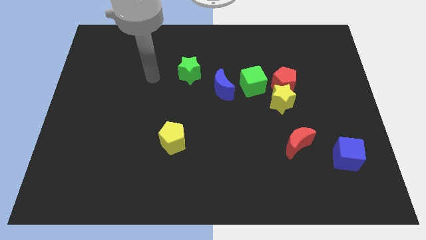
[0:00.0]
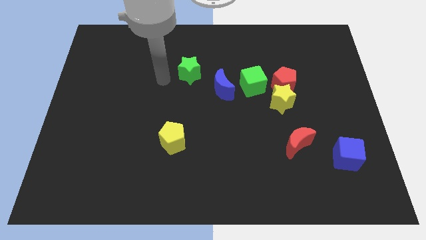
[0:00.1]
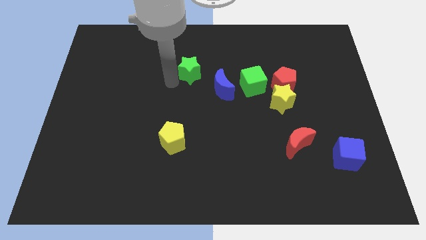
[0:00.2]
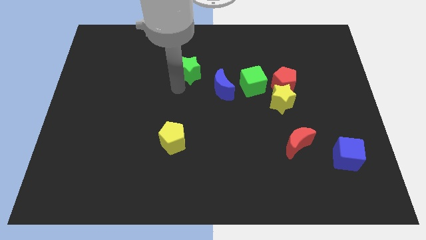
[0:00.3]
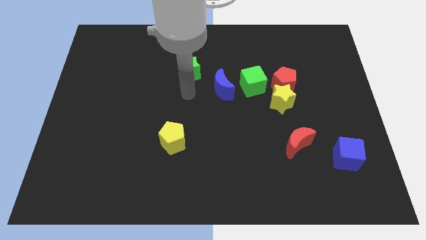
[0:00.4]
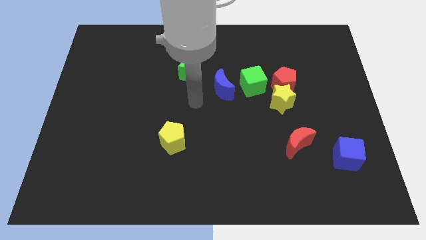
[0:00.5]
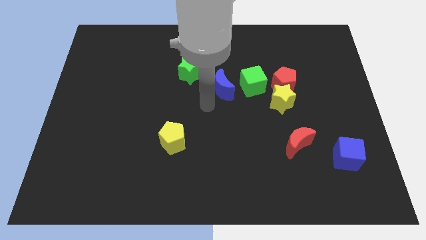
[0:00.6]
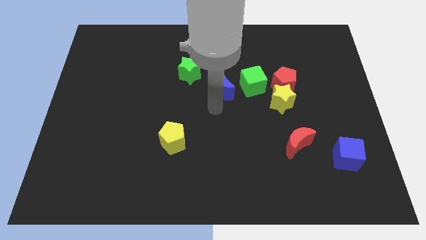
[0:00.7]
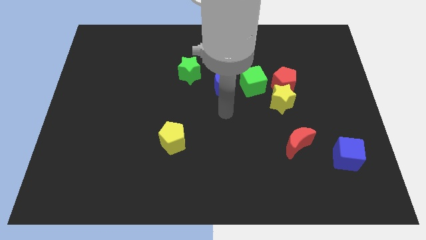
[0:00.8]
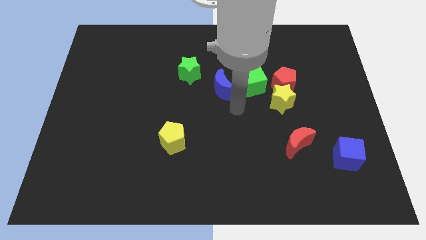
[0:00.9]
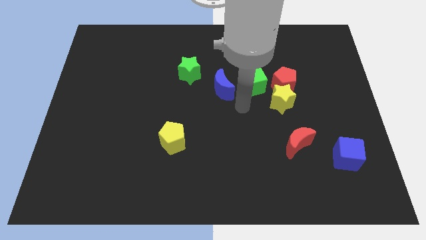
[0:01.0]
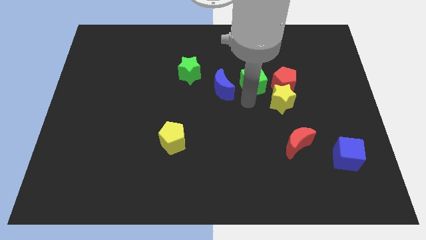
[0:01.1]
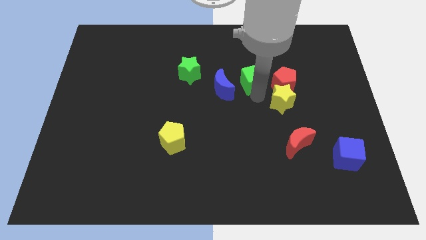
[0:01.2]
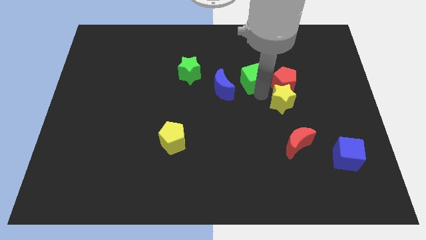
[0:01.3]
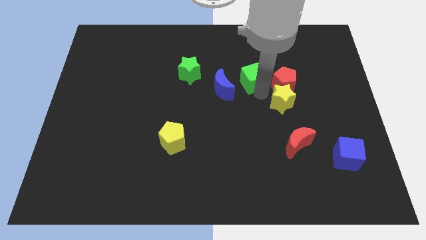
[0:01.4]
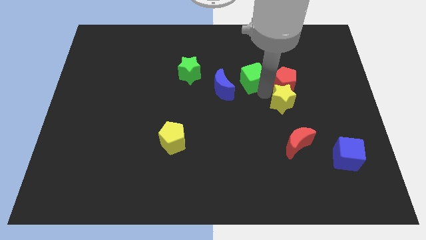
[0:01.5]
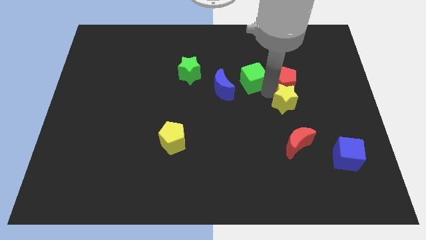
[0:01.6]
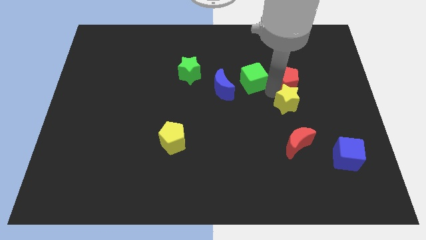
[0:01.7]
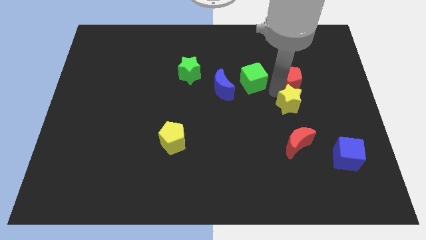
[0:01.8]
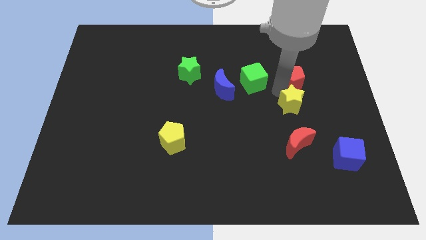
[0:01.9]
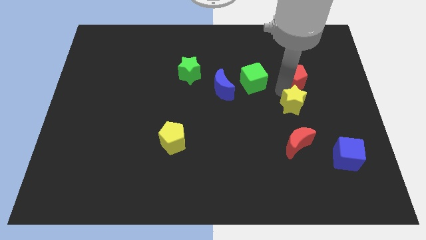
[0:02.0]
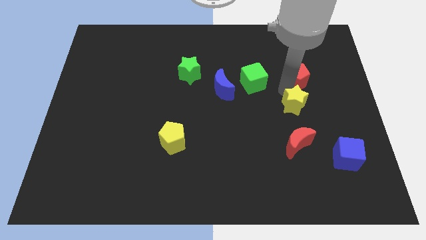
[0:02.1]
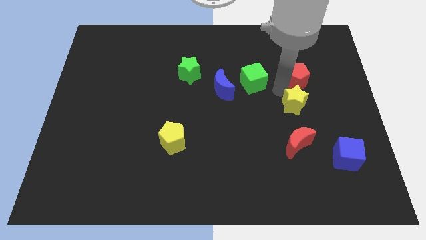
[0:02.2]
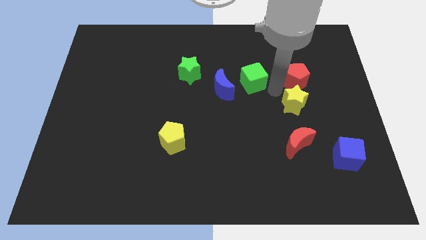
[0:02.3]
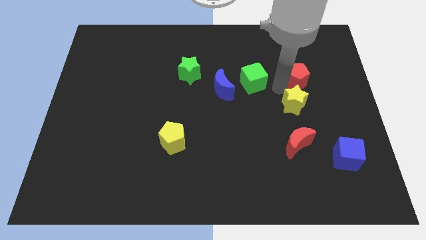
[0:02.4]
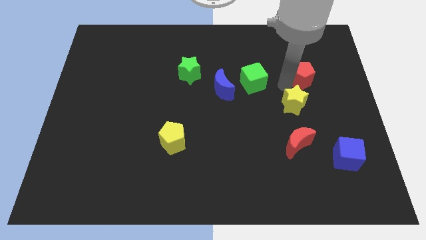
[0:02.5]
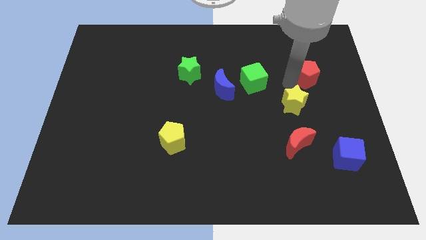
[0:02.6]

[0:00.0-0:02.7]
move the red pentagon away from the yellow star and green cube

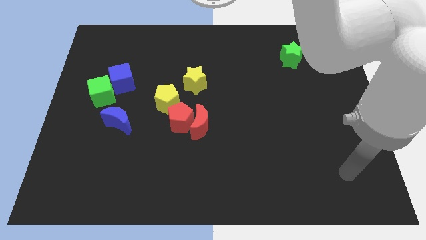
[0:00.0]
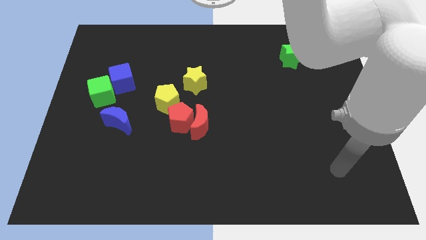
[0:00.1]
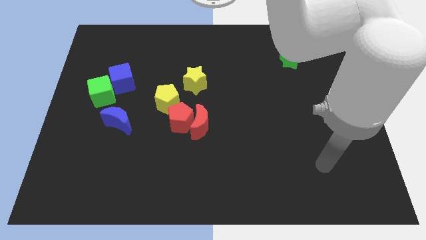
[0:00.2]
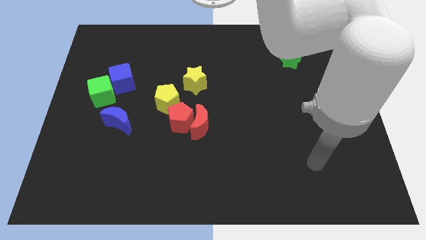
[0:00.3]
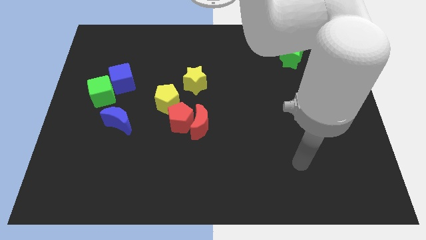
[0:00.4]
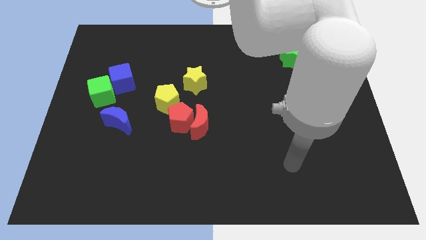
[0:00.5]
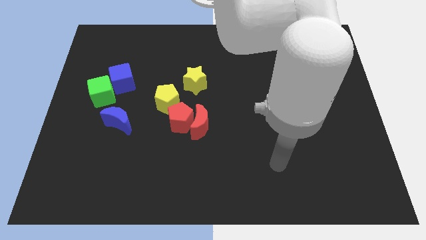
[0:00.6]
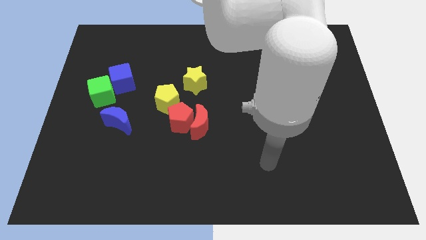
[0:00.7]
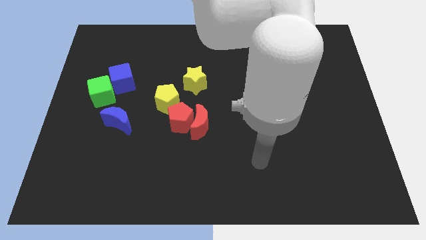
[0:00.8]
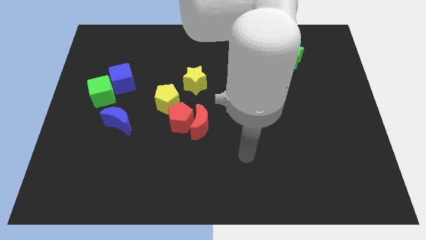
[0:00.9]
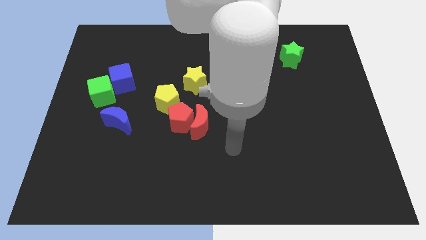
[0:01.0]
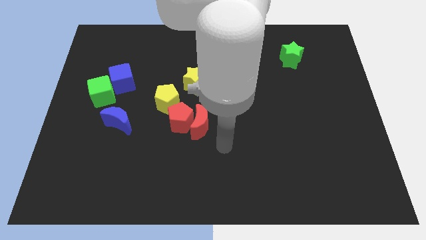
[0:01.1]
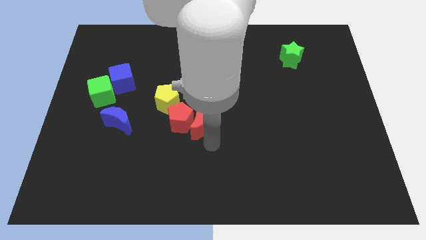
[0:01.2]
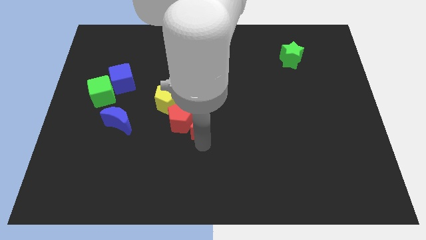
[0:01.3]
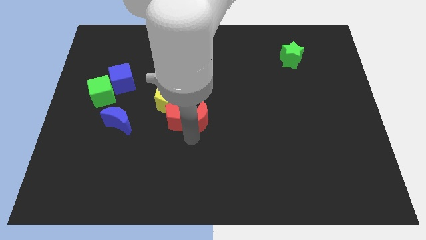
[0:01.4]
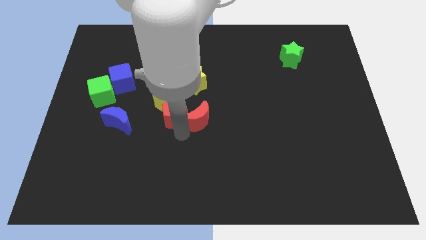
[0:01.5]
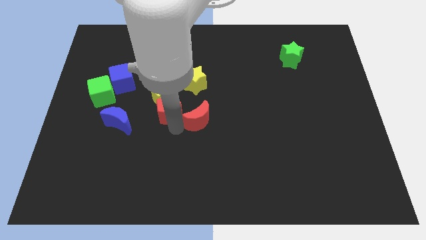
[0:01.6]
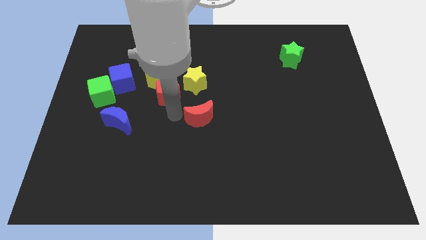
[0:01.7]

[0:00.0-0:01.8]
move the red moon away from the red pentagon

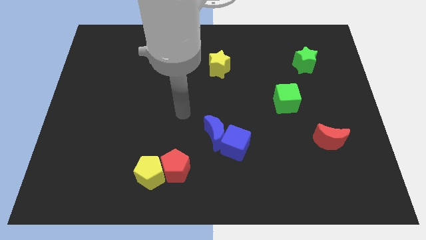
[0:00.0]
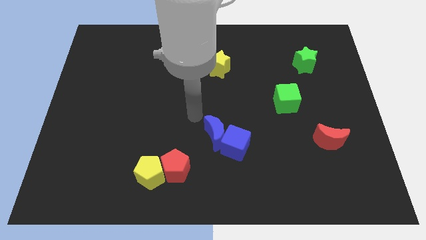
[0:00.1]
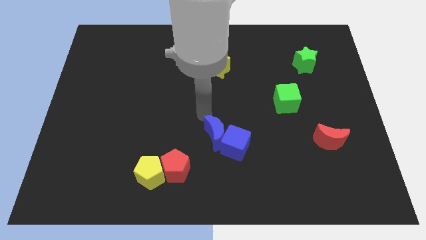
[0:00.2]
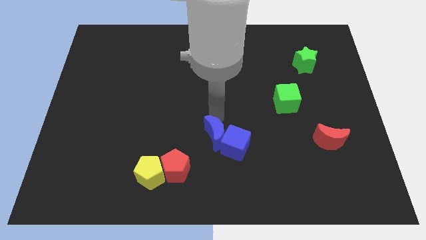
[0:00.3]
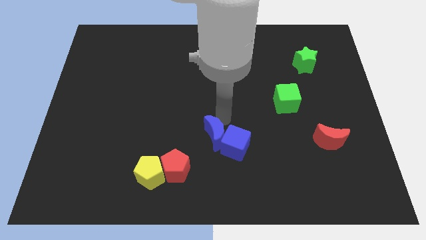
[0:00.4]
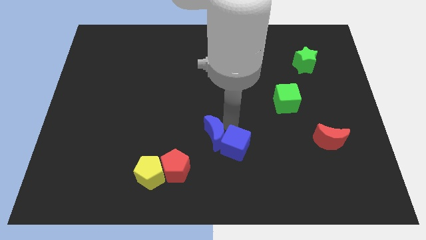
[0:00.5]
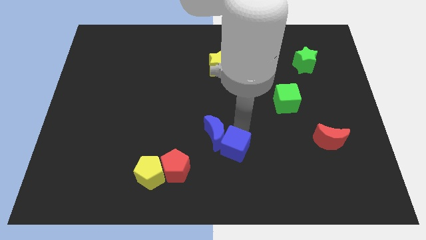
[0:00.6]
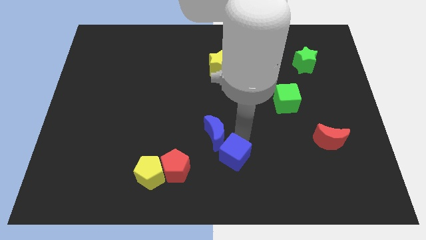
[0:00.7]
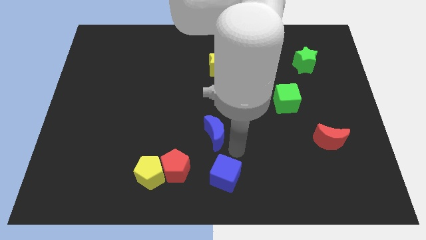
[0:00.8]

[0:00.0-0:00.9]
move the blue moon away from the blue cube

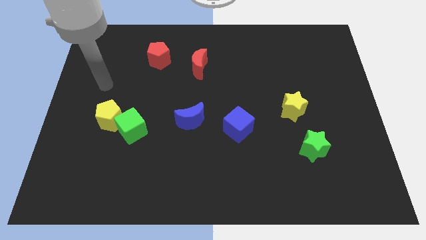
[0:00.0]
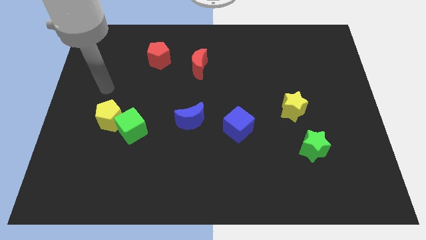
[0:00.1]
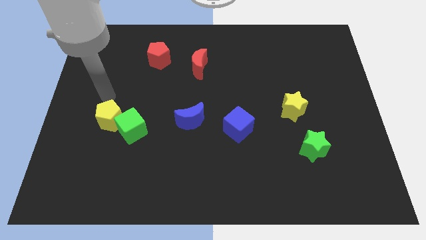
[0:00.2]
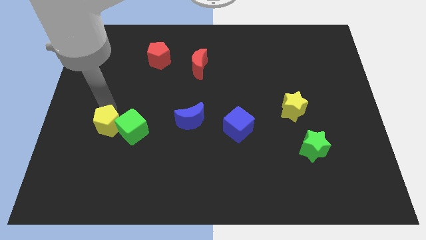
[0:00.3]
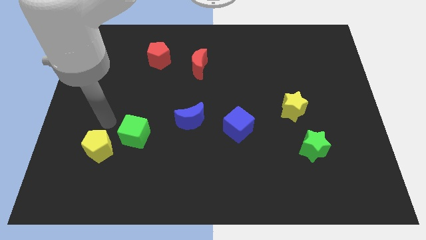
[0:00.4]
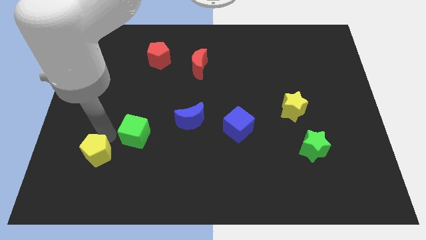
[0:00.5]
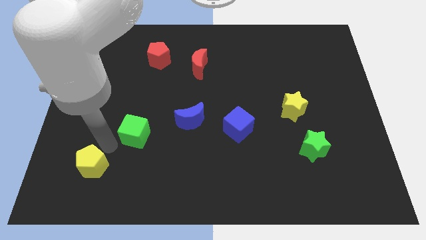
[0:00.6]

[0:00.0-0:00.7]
separate the green cube from the yellow pentagon

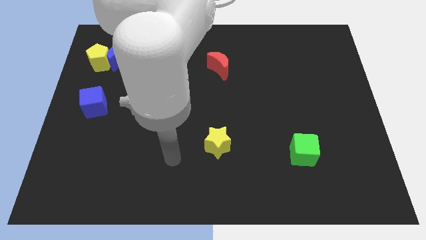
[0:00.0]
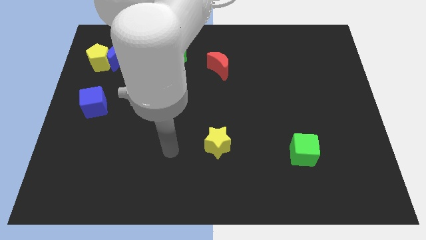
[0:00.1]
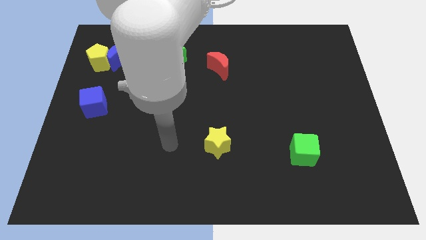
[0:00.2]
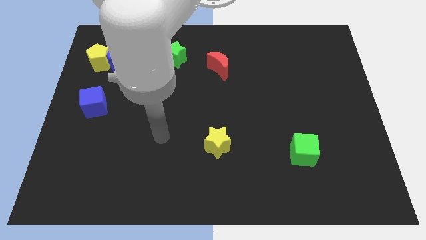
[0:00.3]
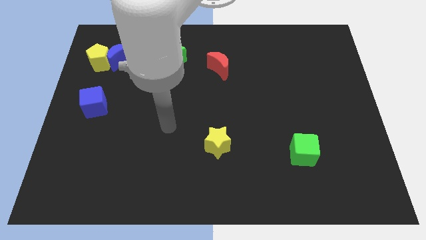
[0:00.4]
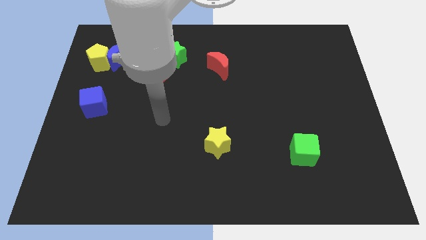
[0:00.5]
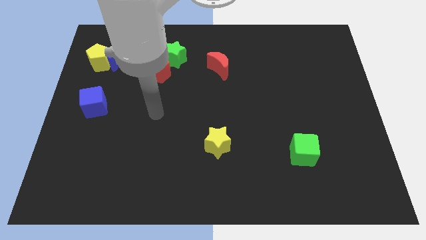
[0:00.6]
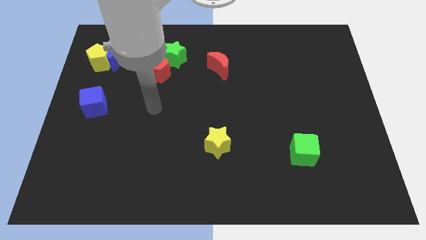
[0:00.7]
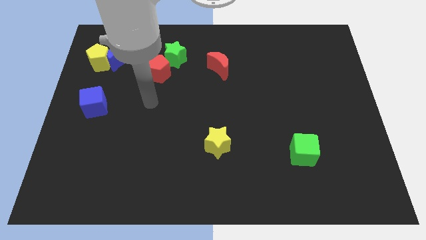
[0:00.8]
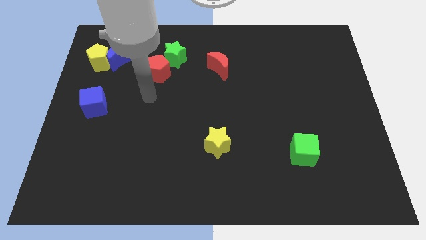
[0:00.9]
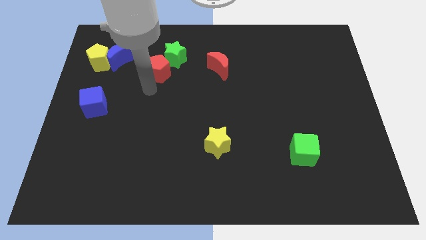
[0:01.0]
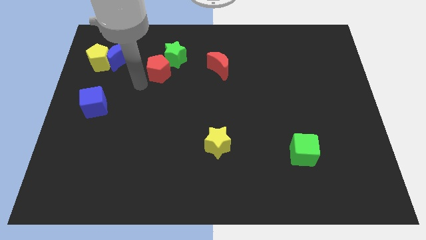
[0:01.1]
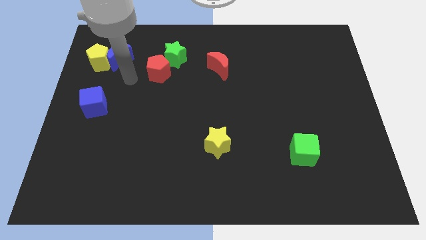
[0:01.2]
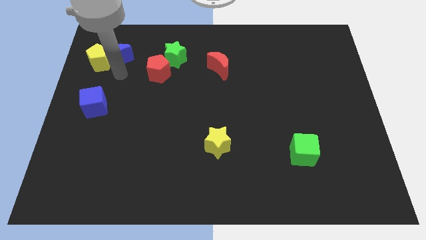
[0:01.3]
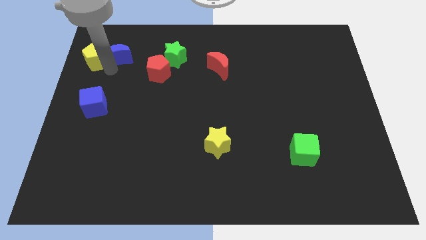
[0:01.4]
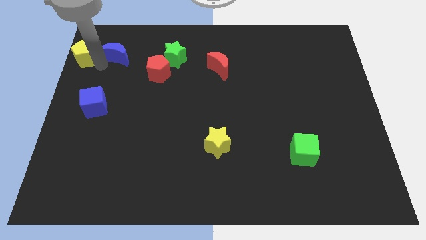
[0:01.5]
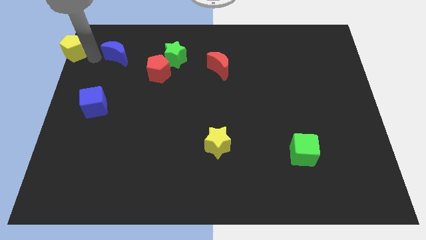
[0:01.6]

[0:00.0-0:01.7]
separate the blue moon from the yellow pentagon

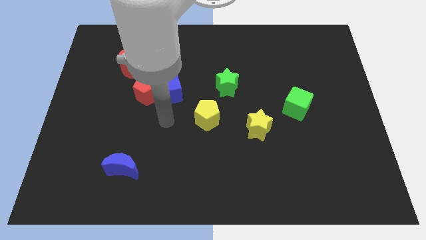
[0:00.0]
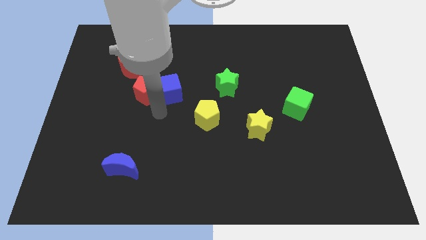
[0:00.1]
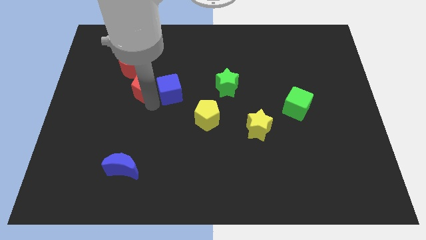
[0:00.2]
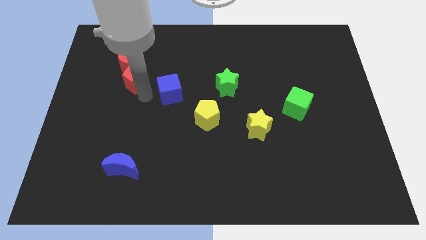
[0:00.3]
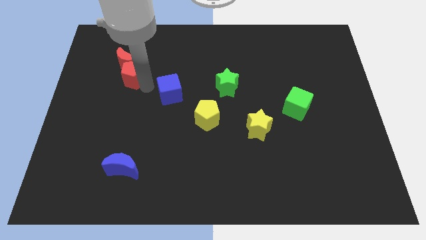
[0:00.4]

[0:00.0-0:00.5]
move the blue cube away from the red pentagon

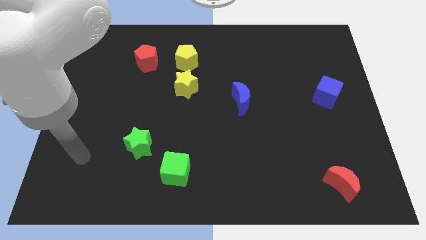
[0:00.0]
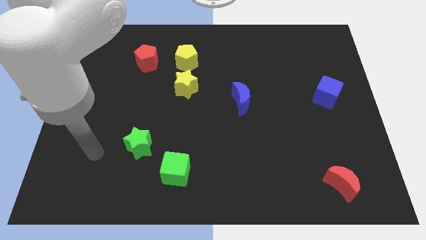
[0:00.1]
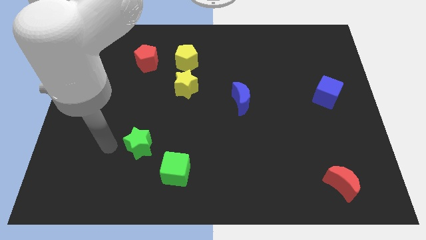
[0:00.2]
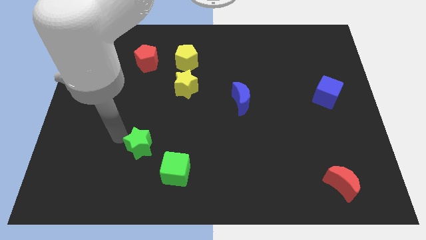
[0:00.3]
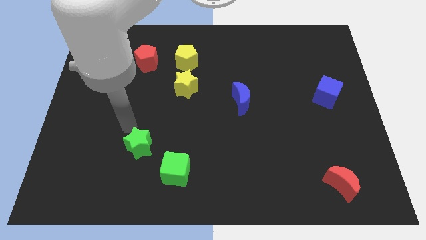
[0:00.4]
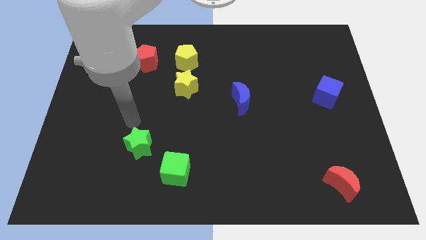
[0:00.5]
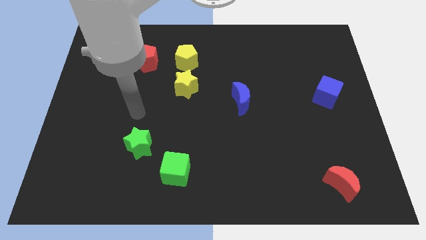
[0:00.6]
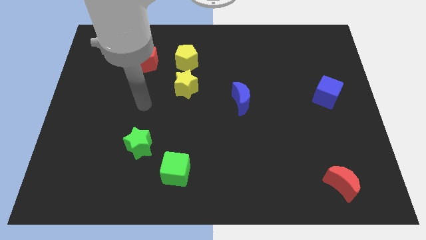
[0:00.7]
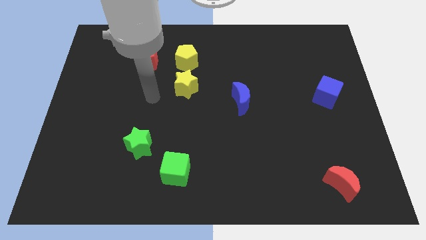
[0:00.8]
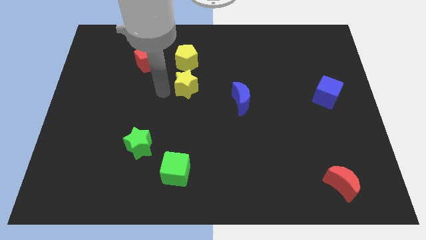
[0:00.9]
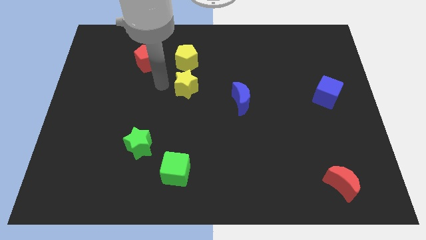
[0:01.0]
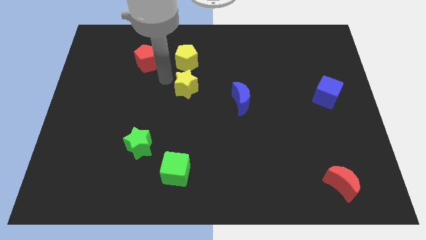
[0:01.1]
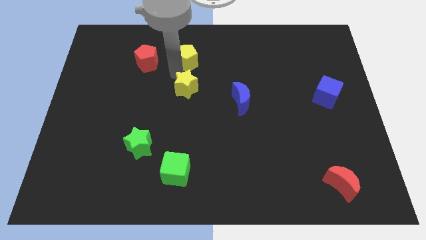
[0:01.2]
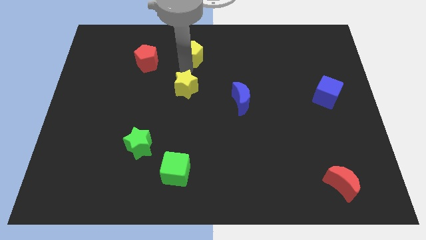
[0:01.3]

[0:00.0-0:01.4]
separate the yellow star from the yellow pentagon
